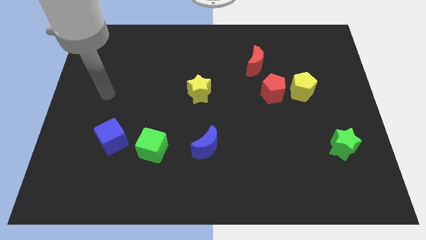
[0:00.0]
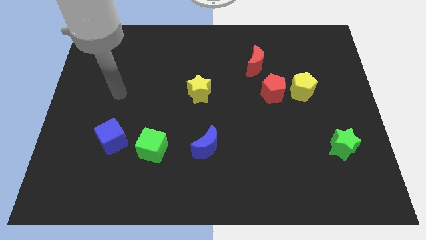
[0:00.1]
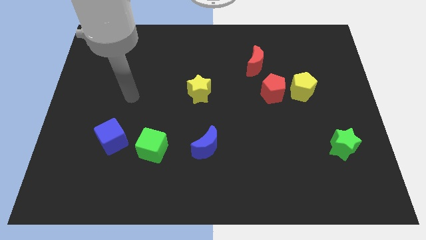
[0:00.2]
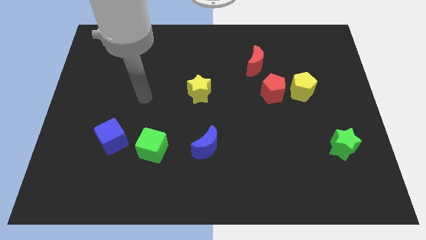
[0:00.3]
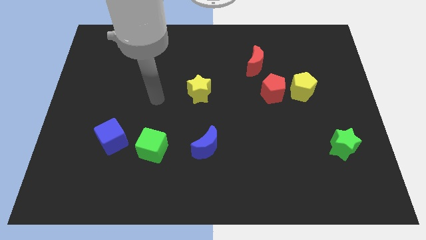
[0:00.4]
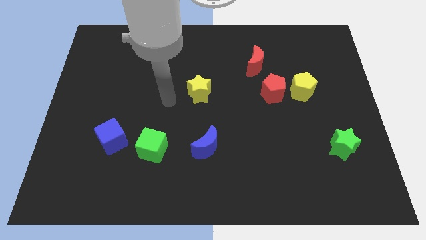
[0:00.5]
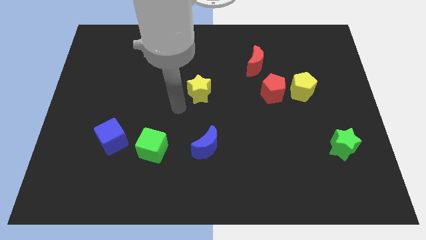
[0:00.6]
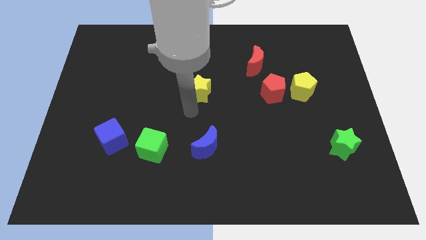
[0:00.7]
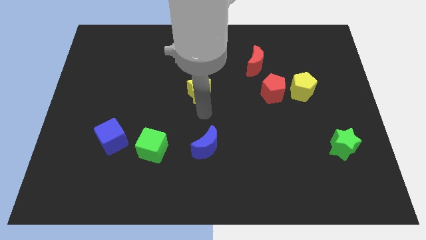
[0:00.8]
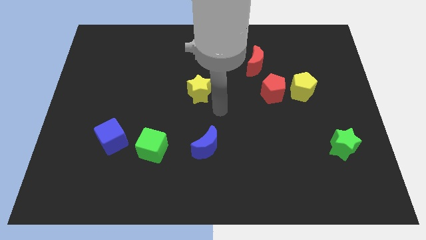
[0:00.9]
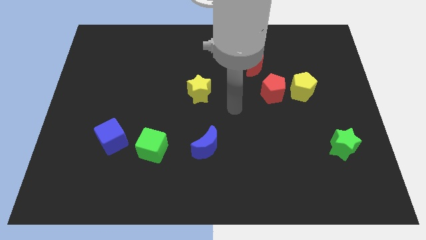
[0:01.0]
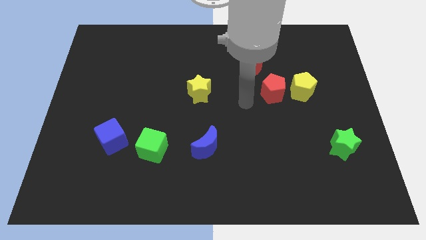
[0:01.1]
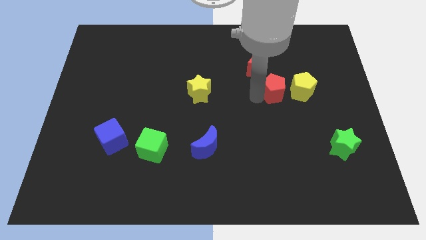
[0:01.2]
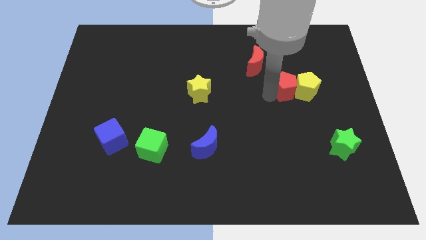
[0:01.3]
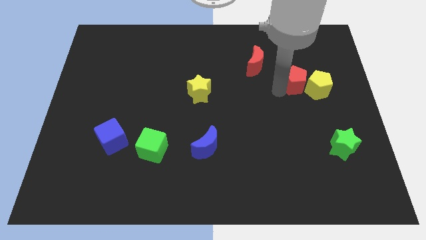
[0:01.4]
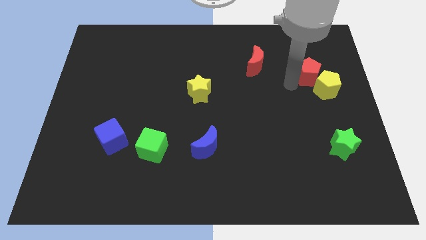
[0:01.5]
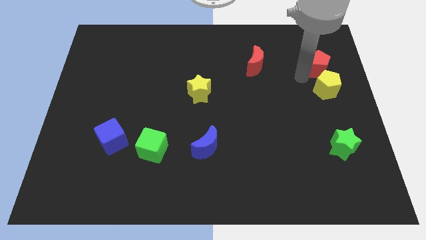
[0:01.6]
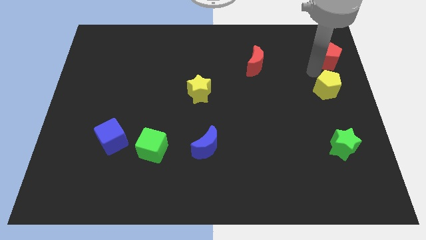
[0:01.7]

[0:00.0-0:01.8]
move the yellow pentagon away from the red pentagon

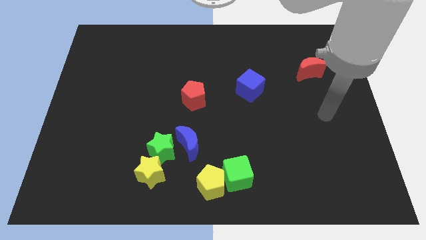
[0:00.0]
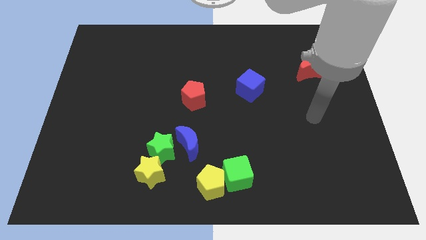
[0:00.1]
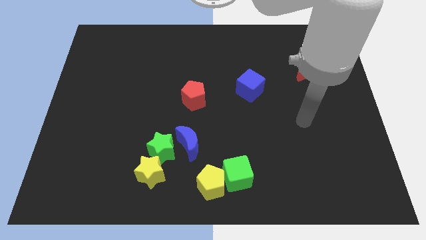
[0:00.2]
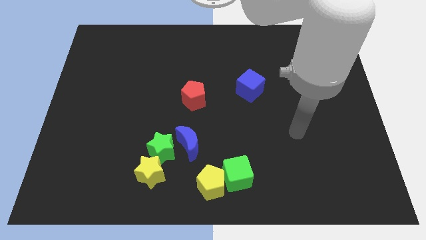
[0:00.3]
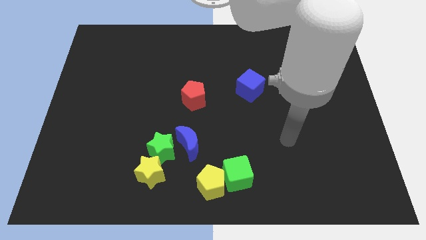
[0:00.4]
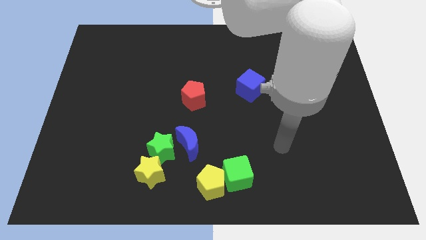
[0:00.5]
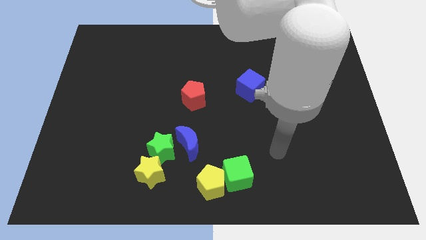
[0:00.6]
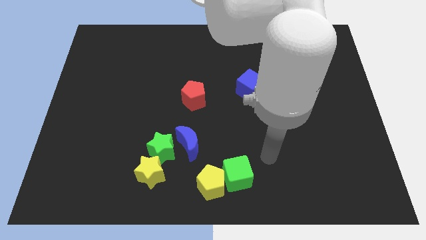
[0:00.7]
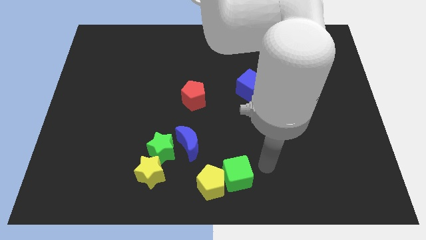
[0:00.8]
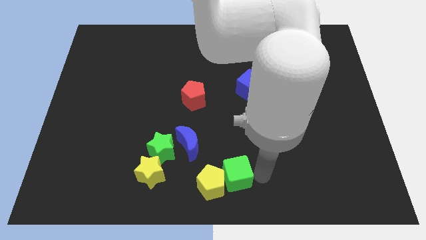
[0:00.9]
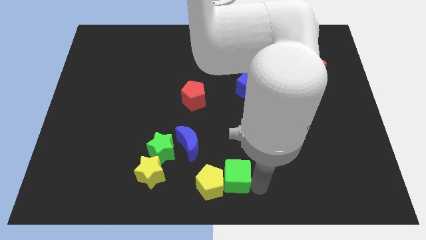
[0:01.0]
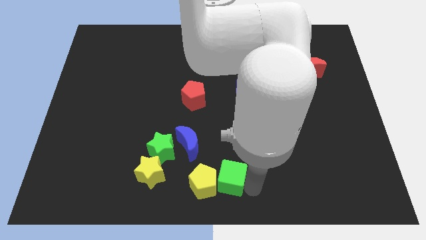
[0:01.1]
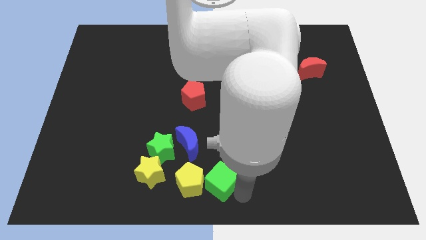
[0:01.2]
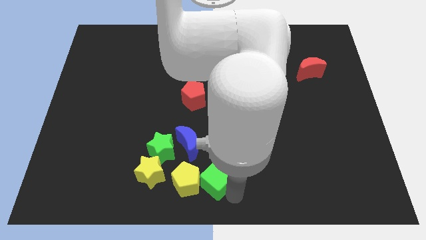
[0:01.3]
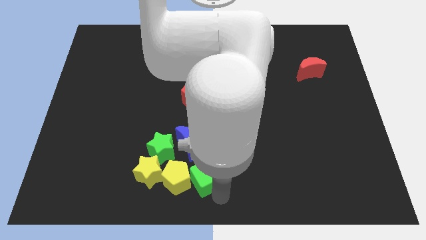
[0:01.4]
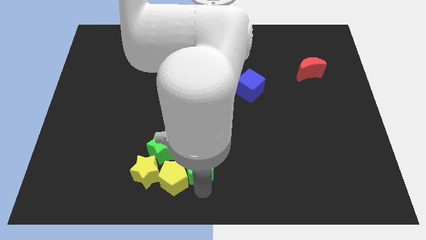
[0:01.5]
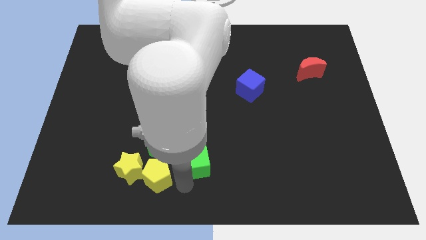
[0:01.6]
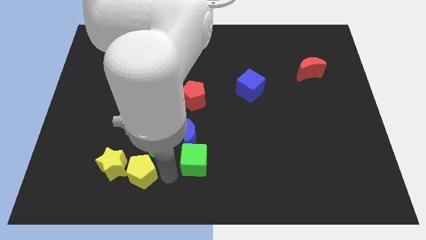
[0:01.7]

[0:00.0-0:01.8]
separate the green cube from the yellow pentagon

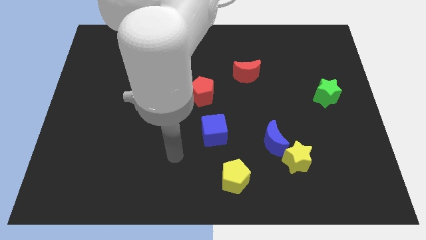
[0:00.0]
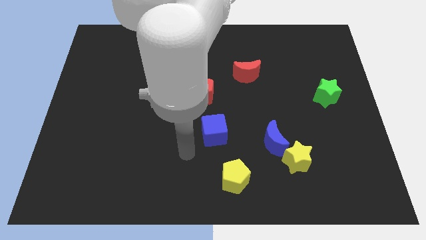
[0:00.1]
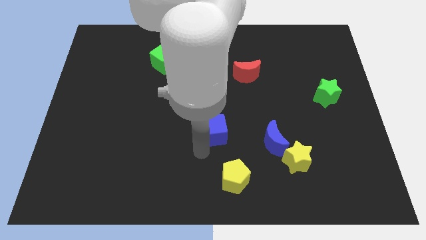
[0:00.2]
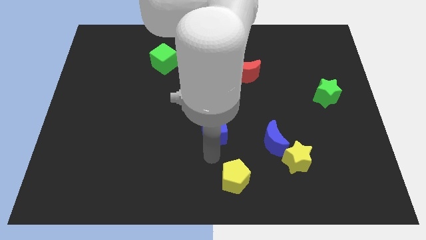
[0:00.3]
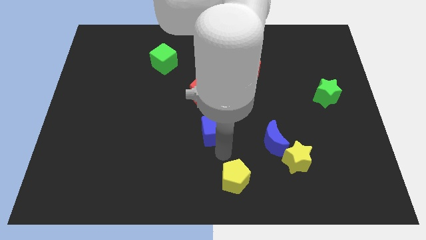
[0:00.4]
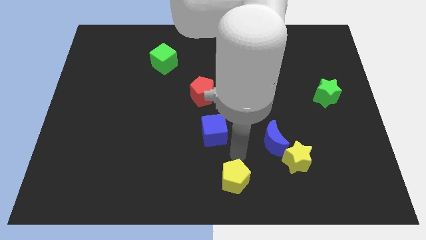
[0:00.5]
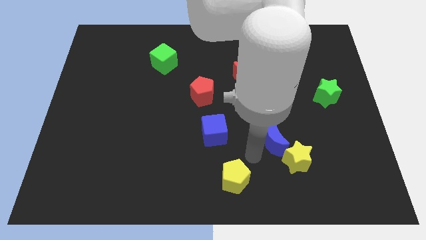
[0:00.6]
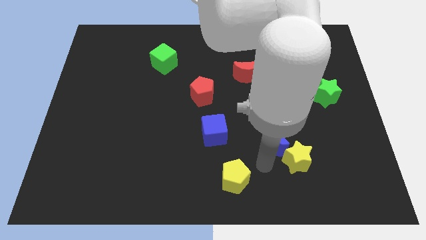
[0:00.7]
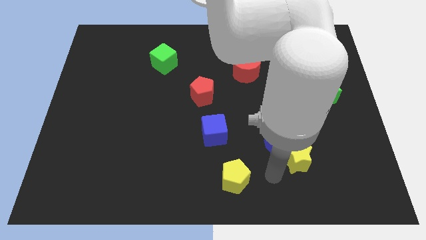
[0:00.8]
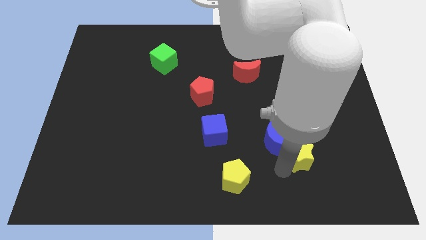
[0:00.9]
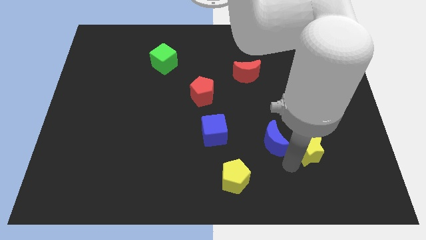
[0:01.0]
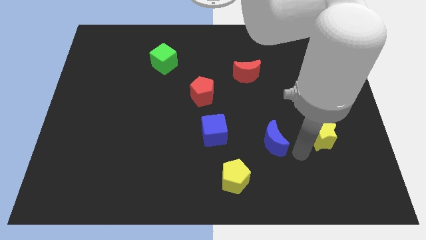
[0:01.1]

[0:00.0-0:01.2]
separate the blue moon from the yellow star

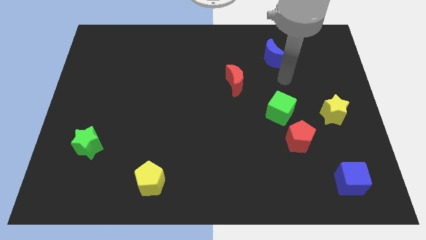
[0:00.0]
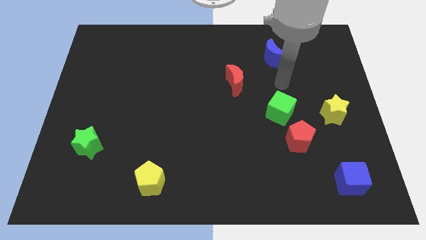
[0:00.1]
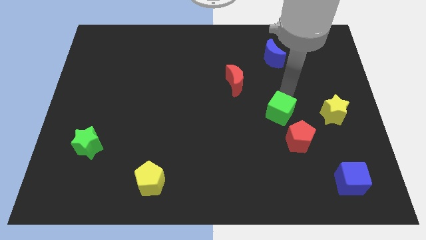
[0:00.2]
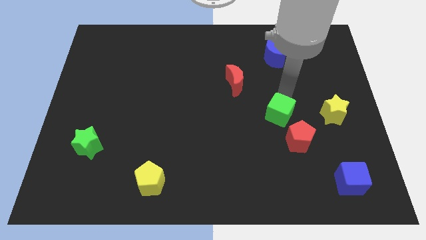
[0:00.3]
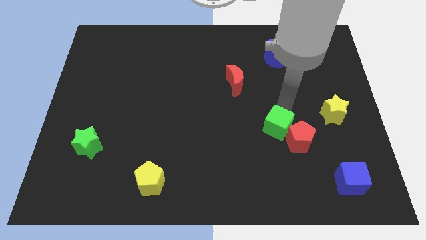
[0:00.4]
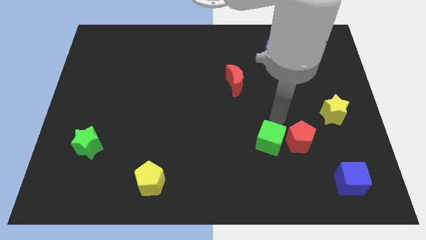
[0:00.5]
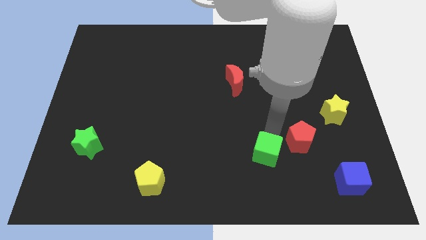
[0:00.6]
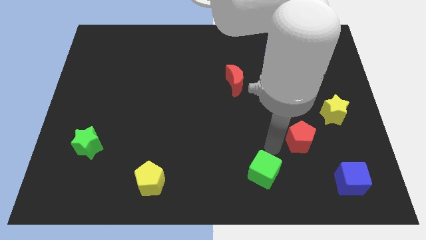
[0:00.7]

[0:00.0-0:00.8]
separate the red pentagon from the green cube

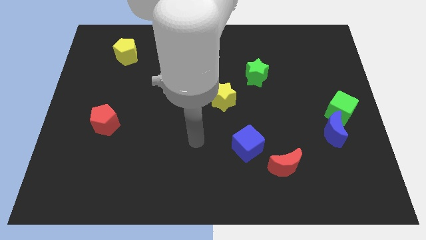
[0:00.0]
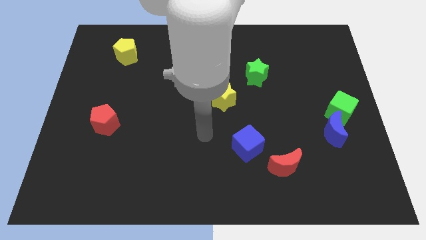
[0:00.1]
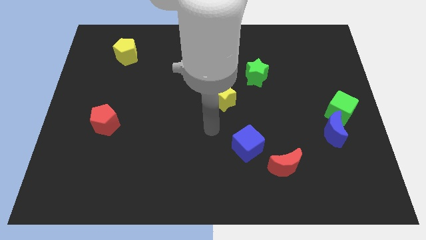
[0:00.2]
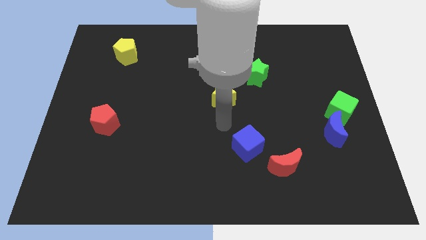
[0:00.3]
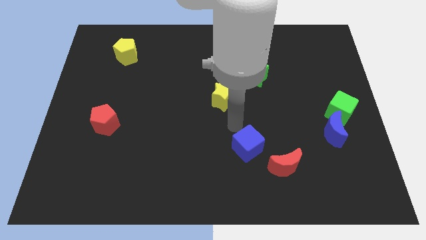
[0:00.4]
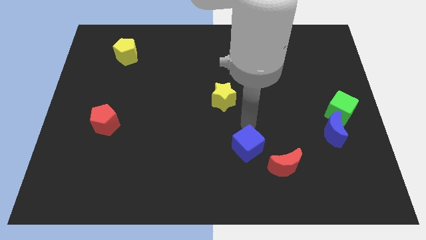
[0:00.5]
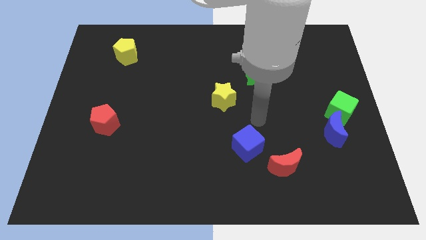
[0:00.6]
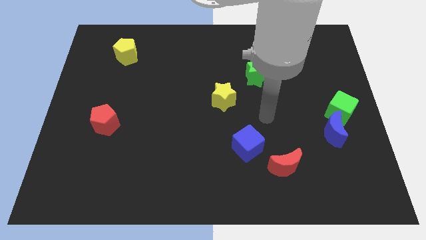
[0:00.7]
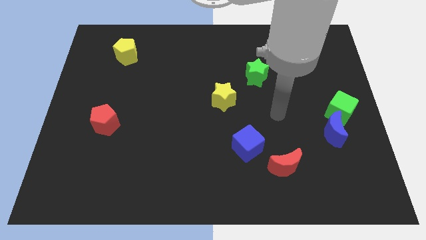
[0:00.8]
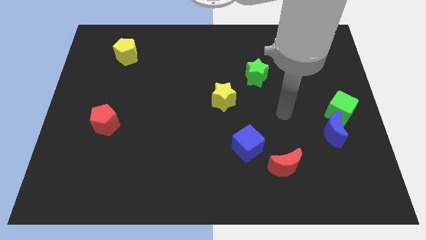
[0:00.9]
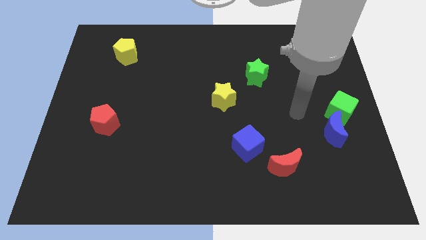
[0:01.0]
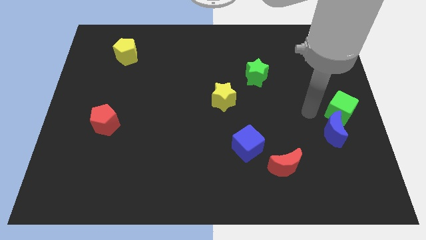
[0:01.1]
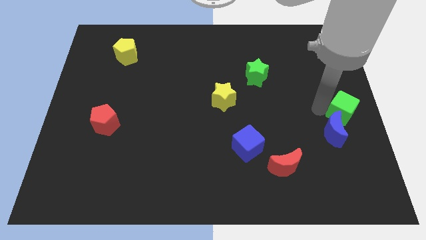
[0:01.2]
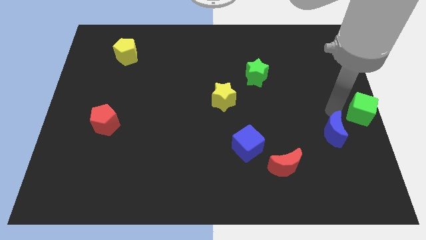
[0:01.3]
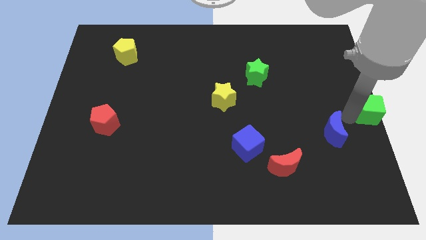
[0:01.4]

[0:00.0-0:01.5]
move the blue moon away from the green cube

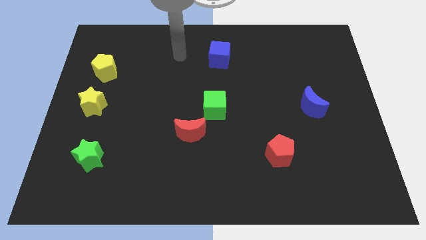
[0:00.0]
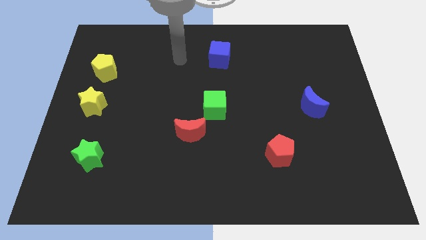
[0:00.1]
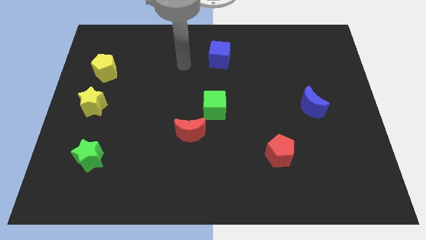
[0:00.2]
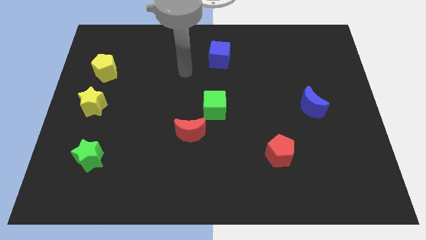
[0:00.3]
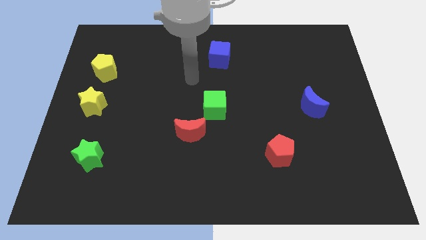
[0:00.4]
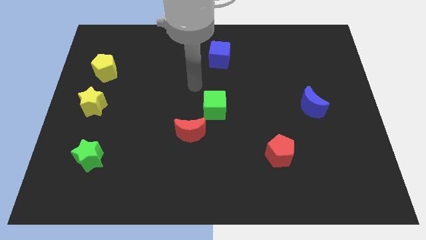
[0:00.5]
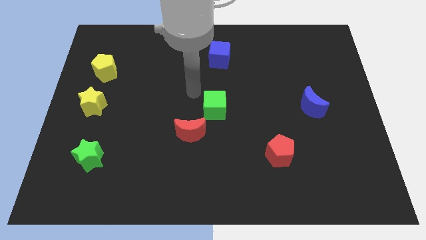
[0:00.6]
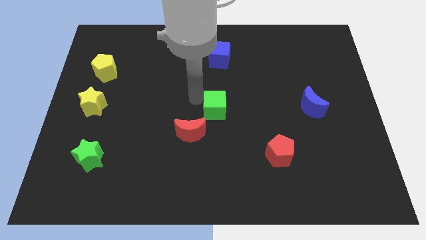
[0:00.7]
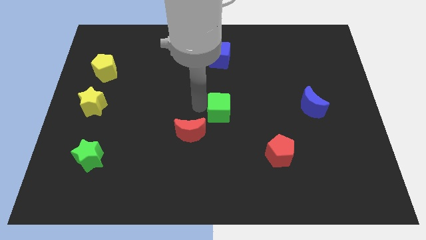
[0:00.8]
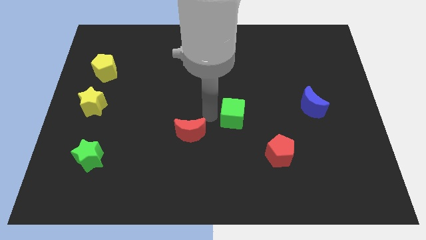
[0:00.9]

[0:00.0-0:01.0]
separate the red moon from the green cube

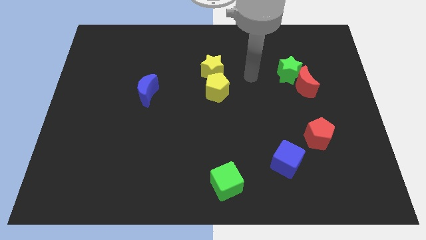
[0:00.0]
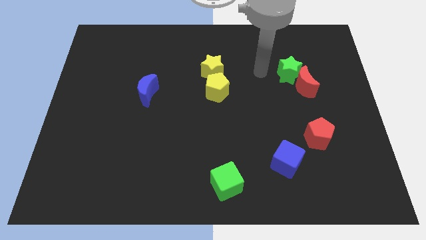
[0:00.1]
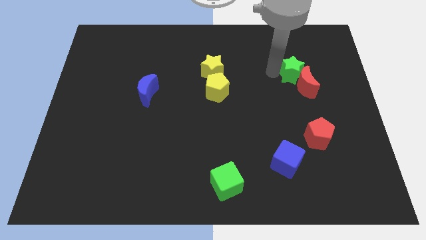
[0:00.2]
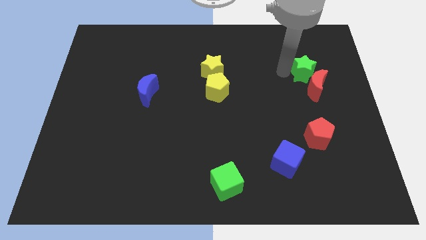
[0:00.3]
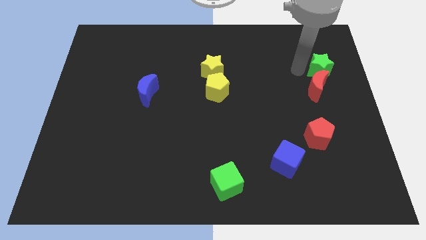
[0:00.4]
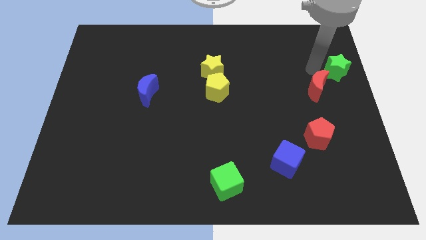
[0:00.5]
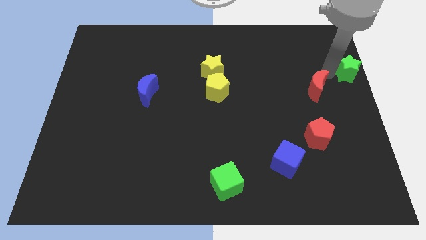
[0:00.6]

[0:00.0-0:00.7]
move the red moon away from the green star

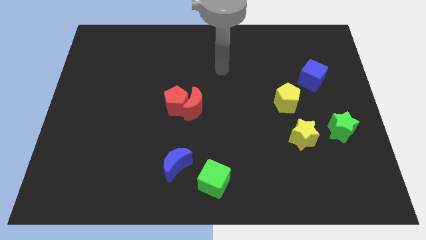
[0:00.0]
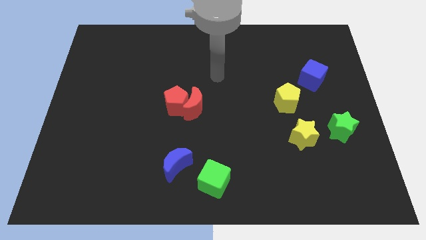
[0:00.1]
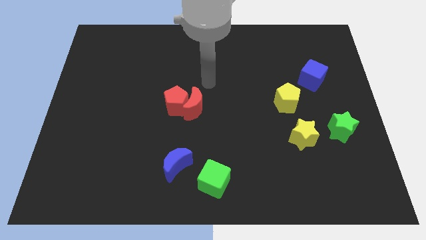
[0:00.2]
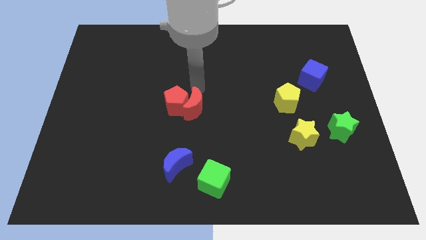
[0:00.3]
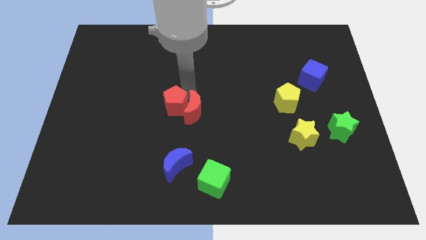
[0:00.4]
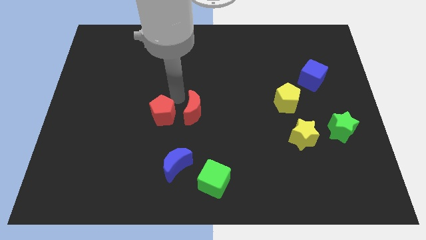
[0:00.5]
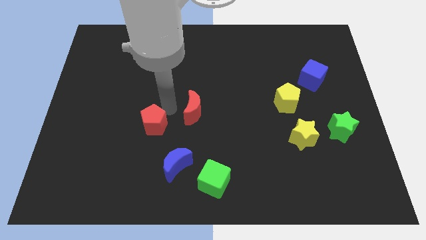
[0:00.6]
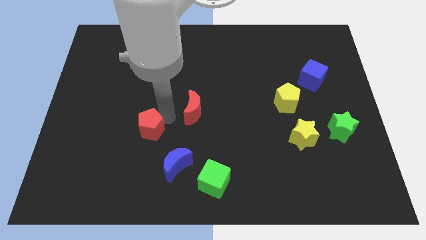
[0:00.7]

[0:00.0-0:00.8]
separate the red moon from the red pentagon
